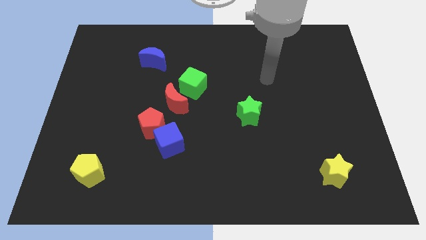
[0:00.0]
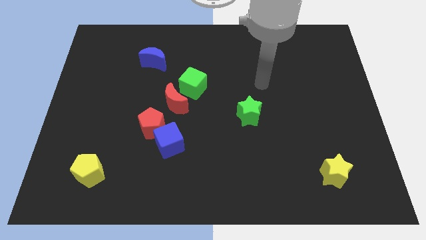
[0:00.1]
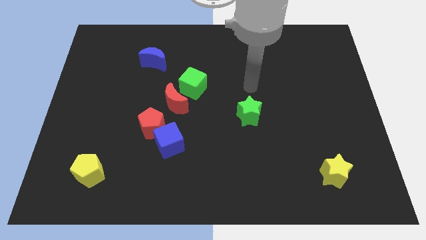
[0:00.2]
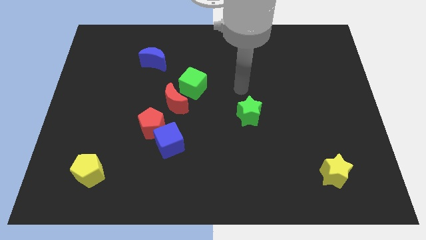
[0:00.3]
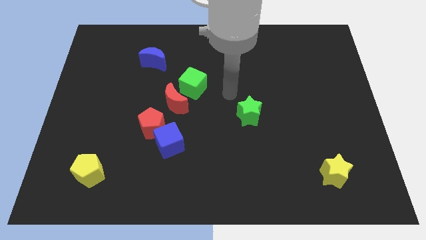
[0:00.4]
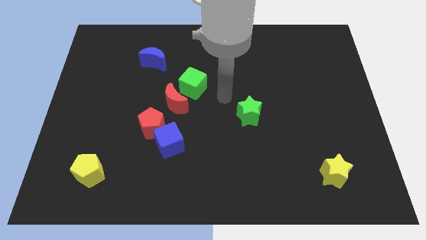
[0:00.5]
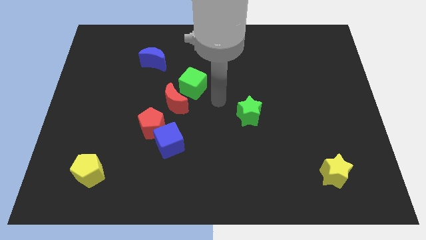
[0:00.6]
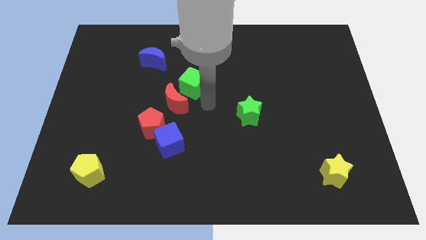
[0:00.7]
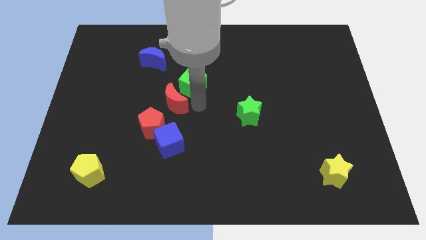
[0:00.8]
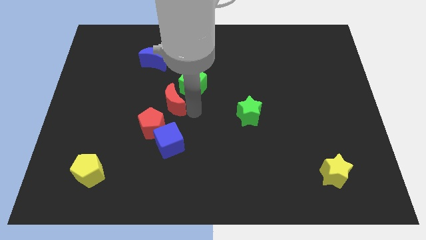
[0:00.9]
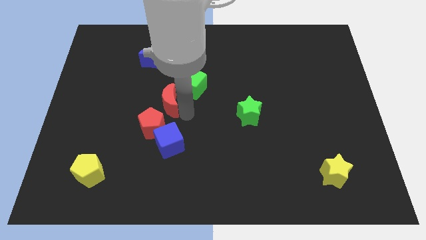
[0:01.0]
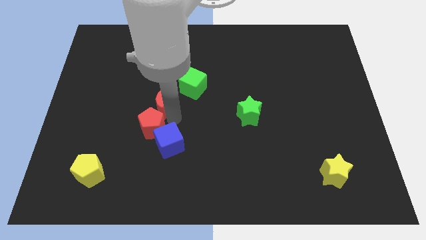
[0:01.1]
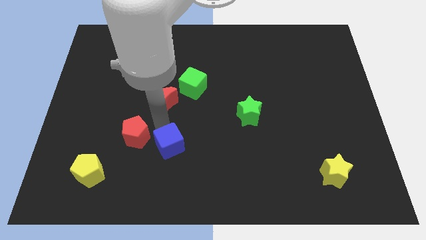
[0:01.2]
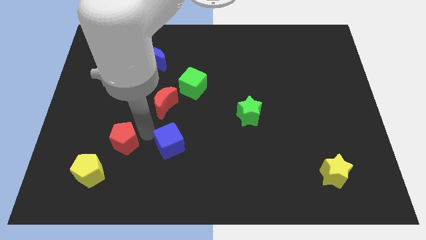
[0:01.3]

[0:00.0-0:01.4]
separate the blue cube from the red pentagon

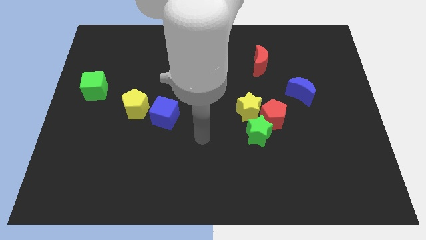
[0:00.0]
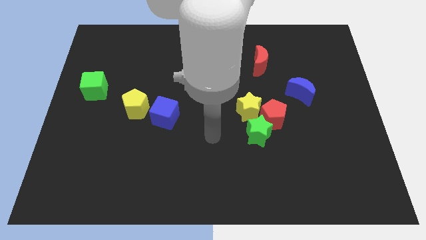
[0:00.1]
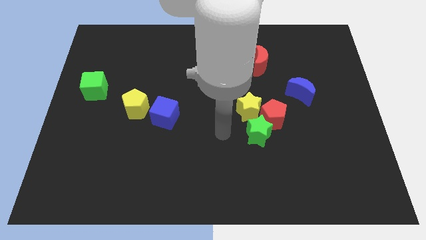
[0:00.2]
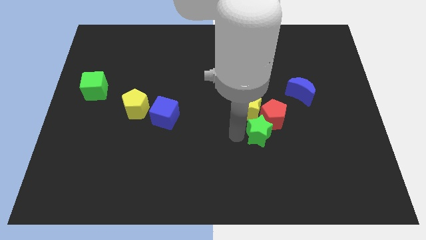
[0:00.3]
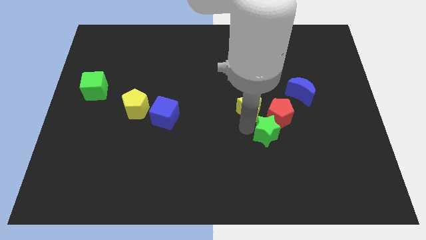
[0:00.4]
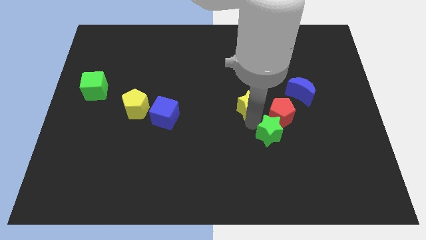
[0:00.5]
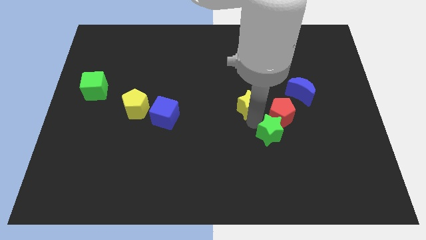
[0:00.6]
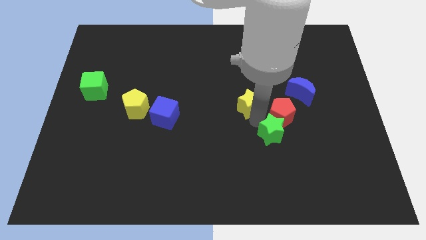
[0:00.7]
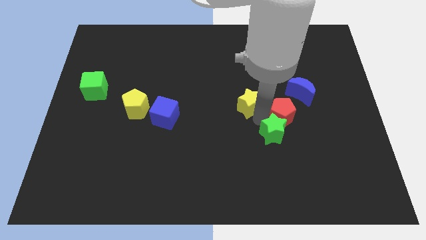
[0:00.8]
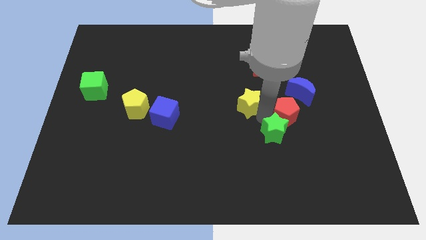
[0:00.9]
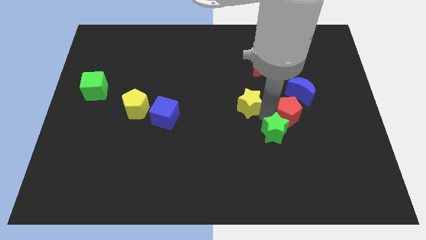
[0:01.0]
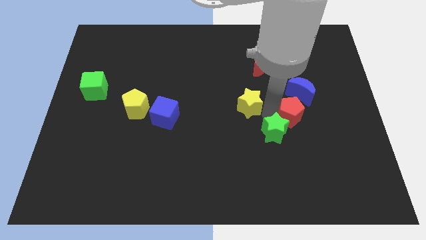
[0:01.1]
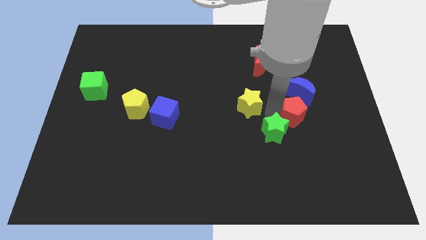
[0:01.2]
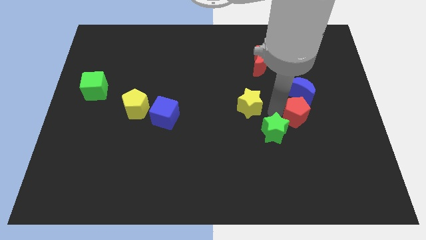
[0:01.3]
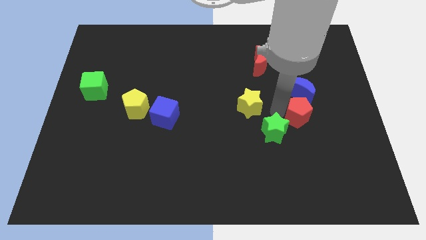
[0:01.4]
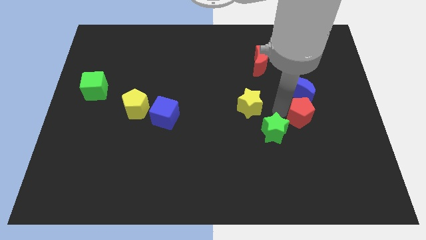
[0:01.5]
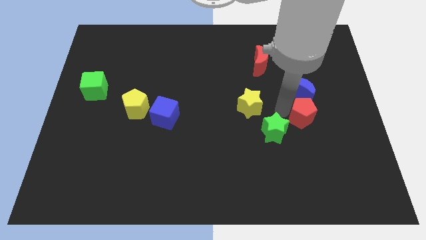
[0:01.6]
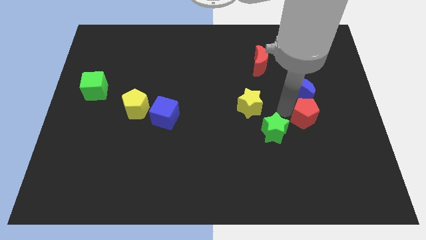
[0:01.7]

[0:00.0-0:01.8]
separate the red pentagon from the green star and yellow star

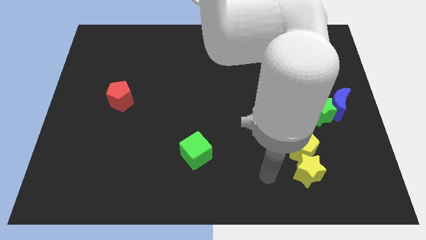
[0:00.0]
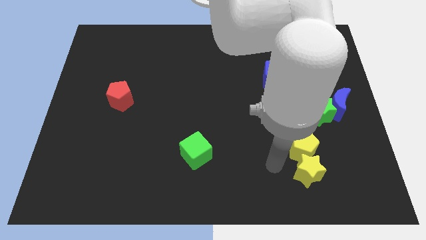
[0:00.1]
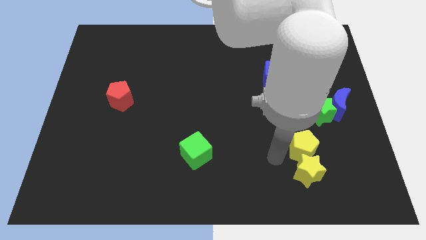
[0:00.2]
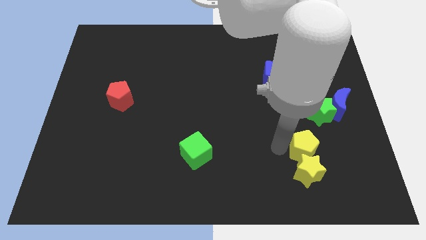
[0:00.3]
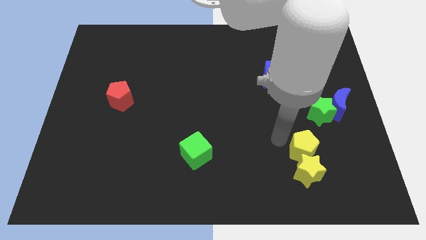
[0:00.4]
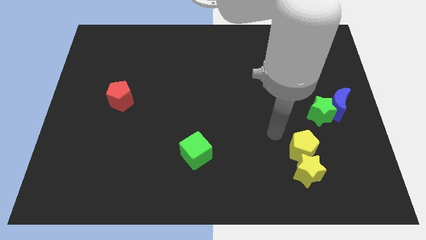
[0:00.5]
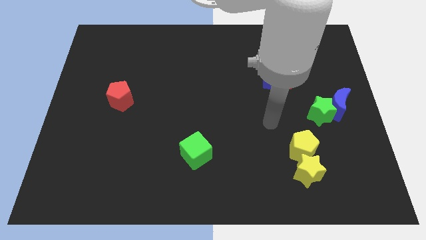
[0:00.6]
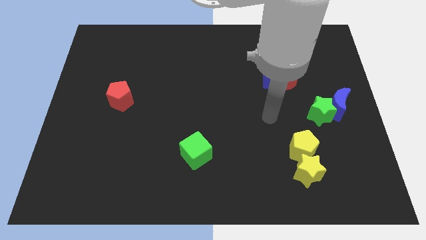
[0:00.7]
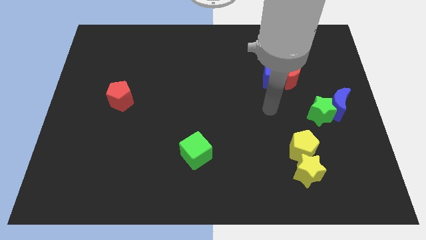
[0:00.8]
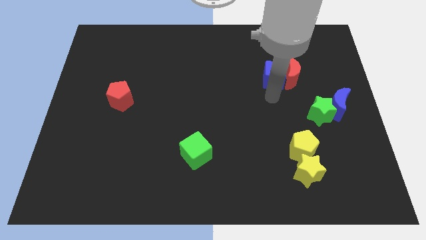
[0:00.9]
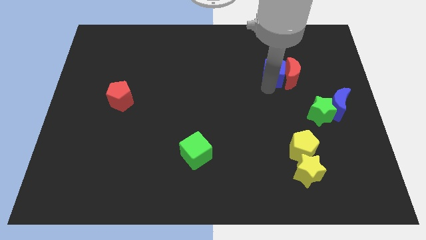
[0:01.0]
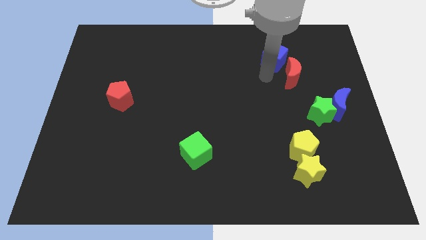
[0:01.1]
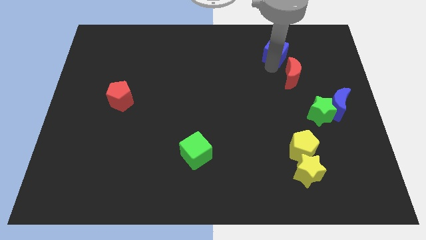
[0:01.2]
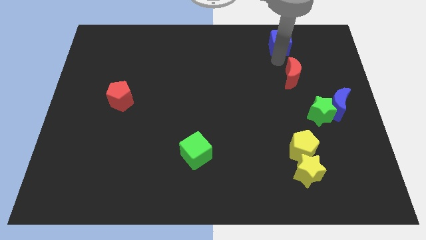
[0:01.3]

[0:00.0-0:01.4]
pull the red moon apart from the blue cube

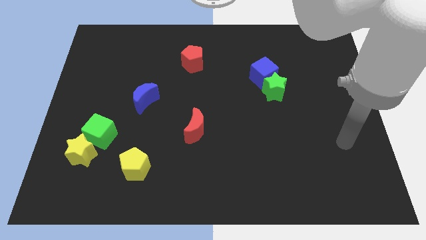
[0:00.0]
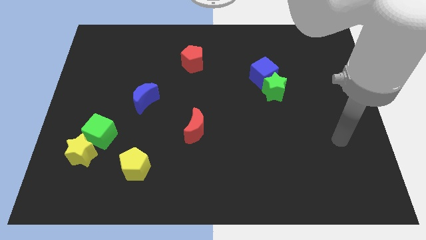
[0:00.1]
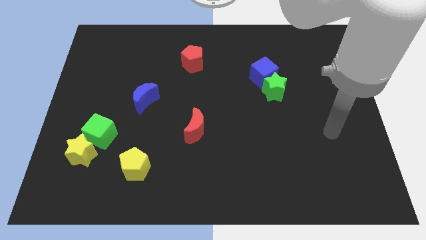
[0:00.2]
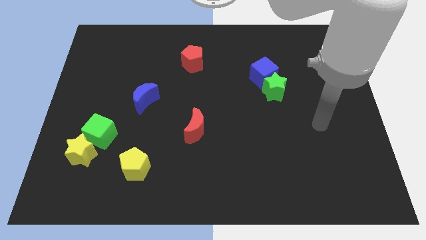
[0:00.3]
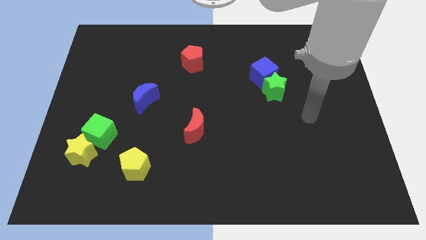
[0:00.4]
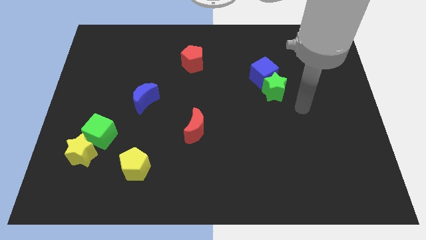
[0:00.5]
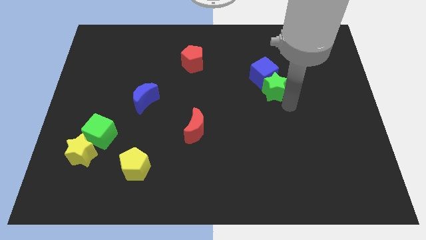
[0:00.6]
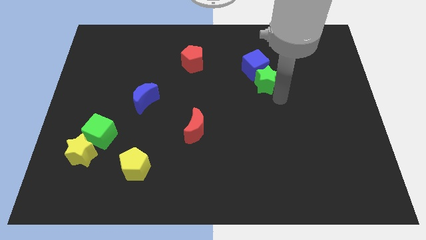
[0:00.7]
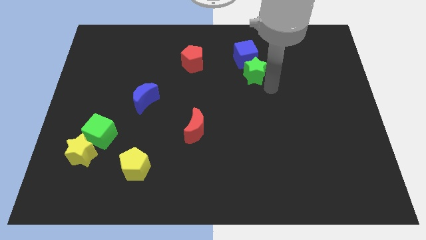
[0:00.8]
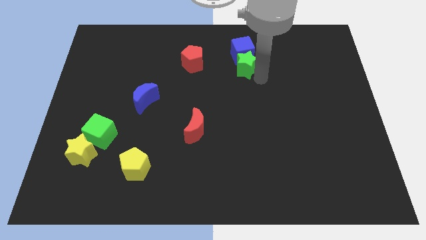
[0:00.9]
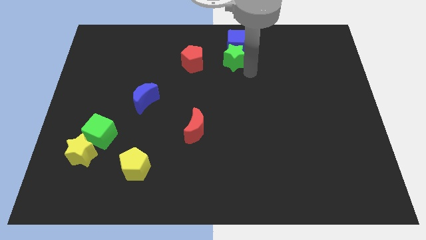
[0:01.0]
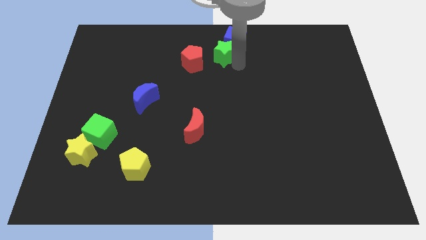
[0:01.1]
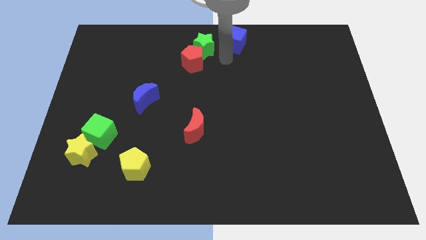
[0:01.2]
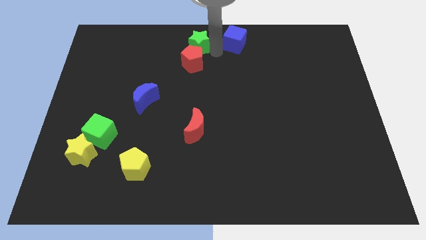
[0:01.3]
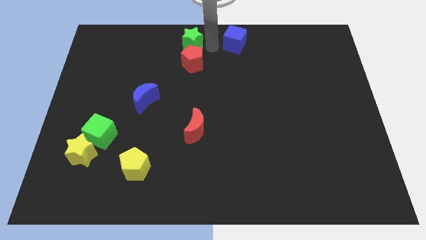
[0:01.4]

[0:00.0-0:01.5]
pull the blue cube apart from the green star

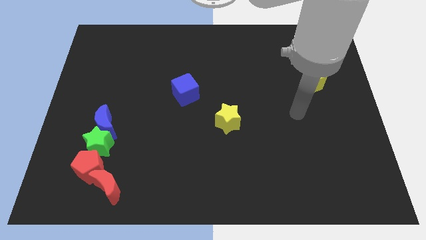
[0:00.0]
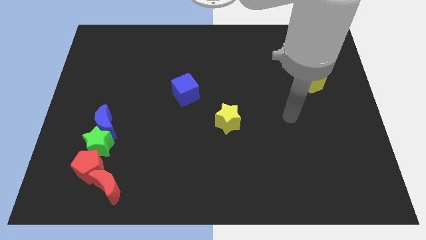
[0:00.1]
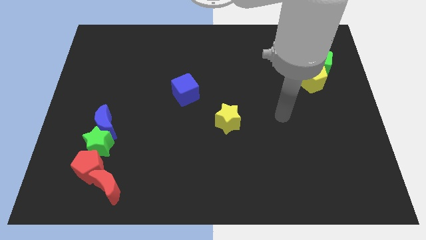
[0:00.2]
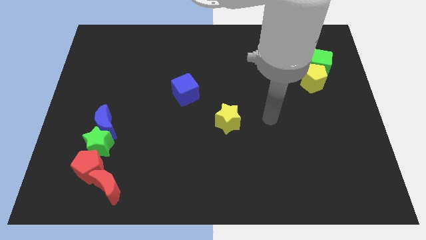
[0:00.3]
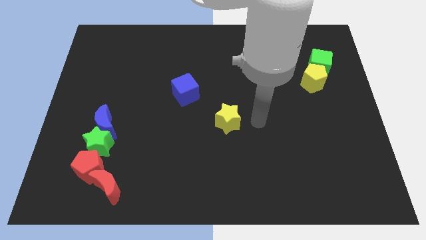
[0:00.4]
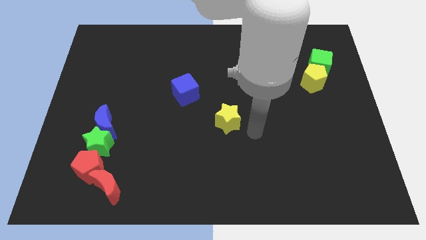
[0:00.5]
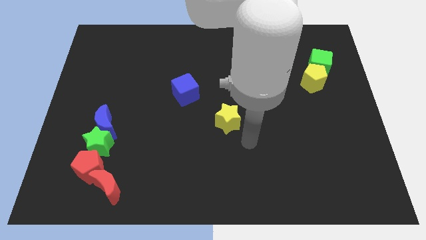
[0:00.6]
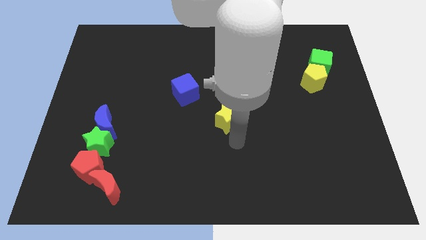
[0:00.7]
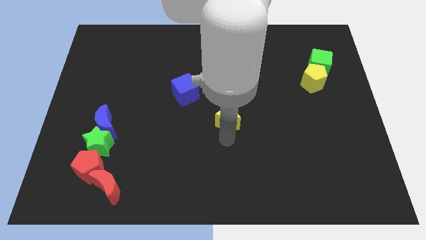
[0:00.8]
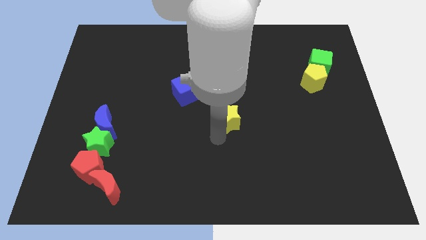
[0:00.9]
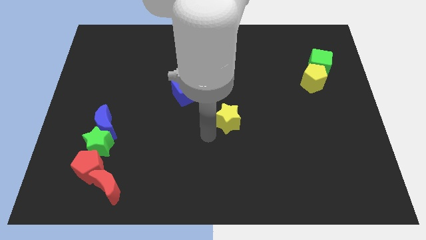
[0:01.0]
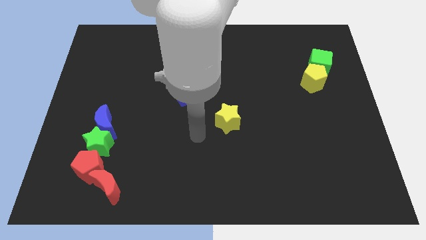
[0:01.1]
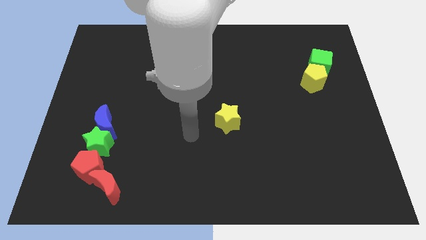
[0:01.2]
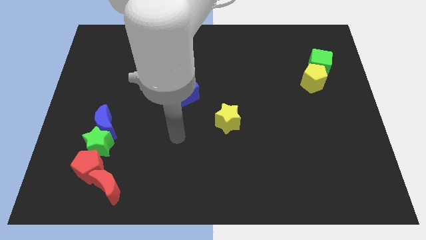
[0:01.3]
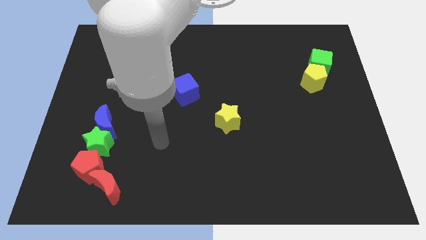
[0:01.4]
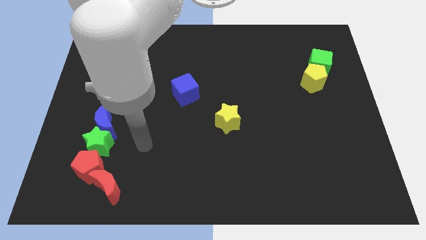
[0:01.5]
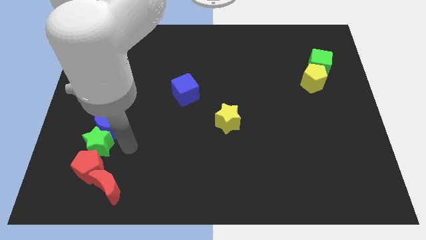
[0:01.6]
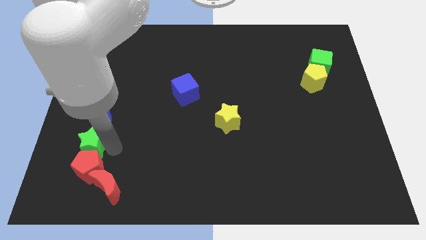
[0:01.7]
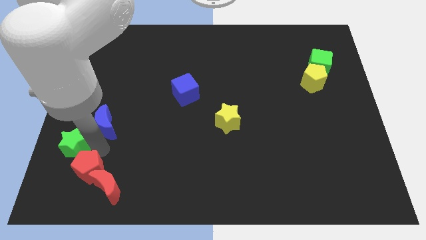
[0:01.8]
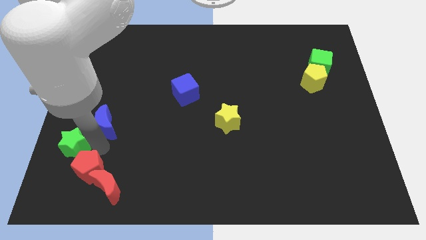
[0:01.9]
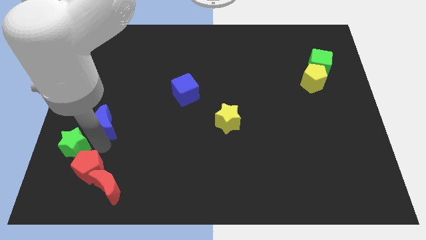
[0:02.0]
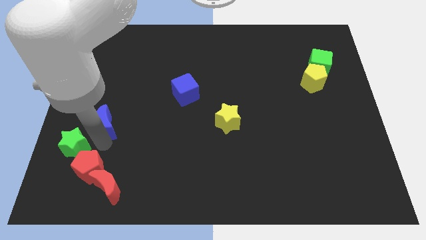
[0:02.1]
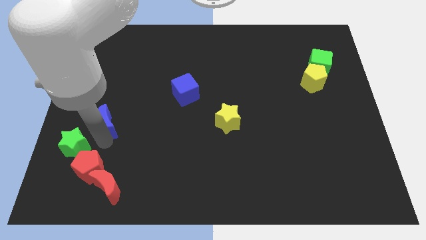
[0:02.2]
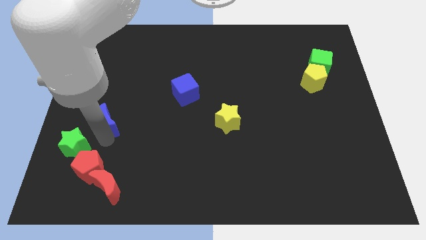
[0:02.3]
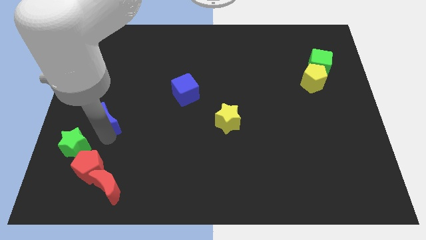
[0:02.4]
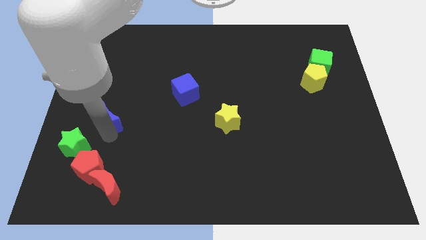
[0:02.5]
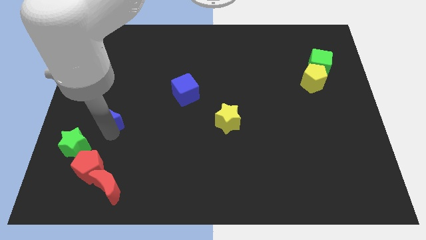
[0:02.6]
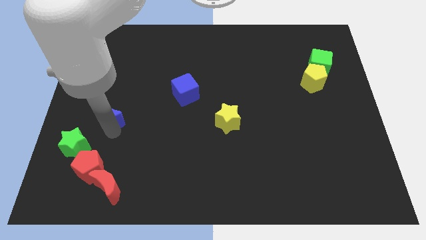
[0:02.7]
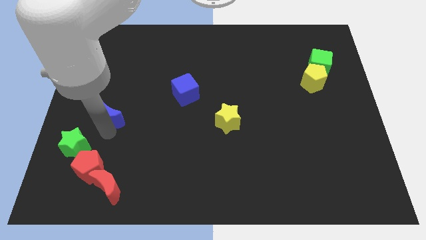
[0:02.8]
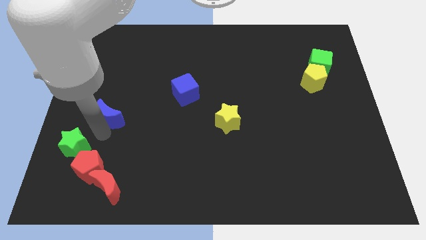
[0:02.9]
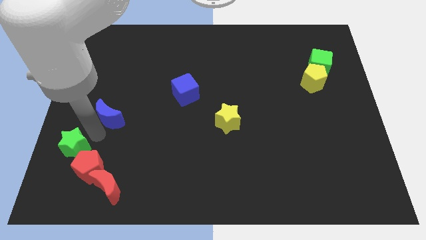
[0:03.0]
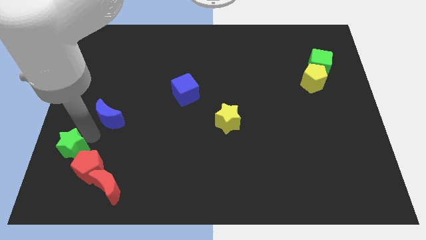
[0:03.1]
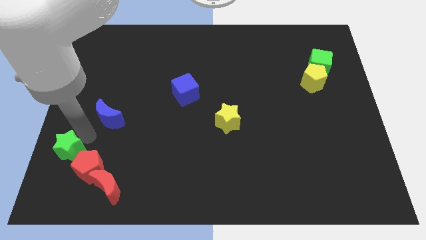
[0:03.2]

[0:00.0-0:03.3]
separate the blue moon from the green star
